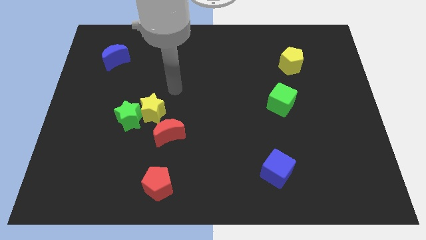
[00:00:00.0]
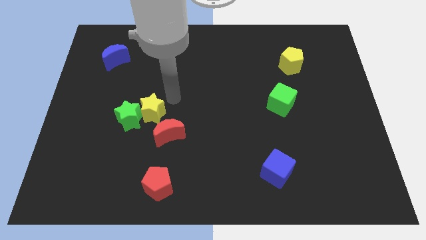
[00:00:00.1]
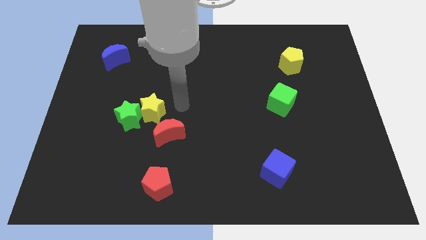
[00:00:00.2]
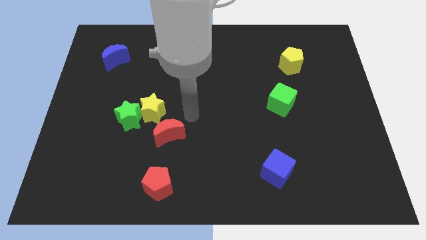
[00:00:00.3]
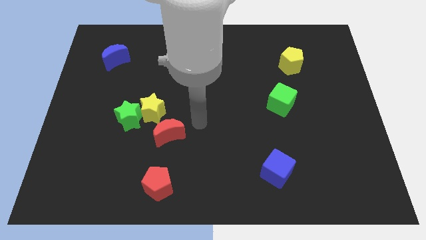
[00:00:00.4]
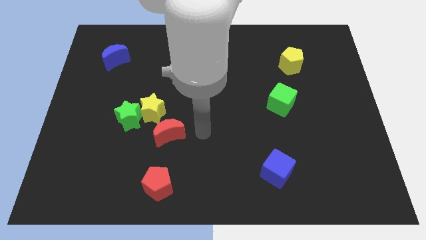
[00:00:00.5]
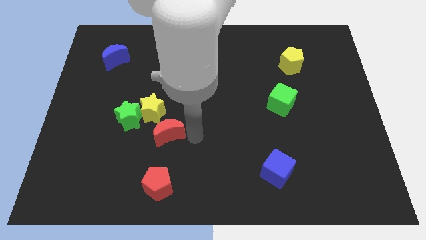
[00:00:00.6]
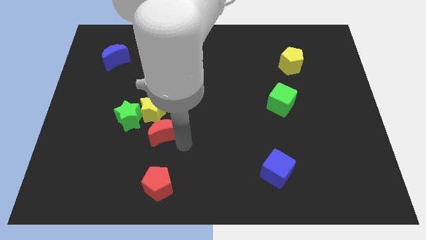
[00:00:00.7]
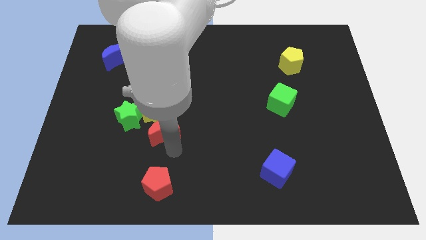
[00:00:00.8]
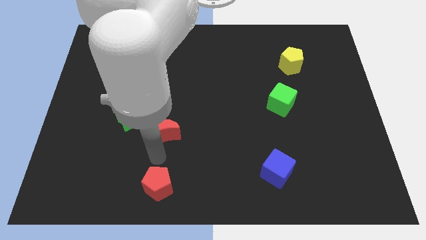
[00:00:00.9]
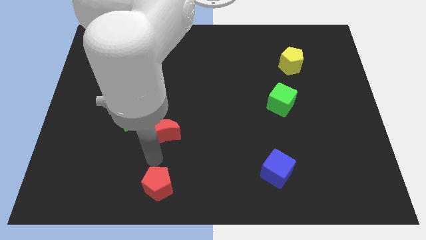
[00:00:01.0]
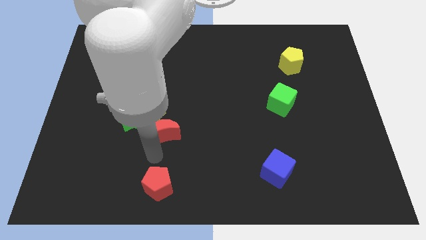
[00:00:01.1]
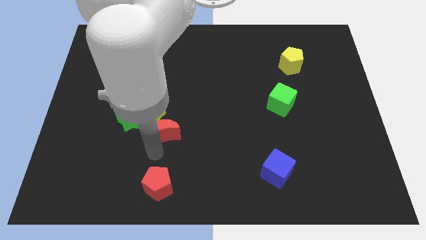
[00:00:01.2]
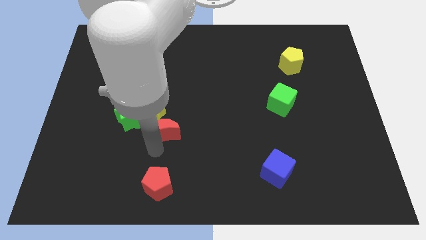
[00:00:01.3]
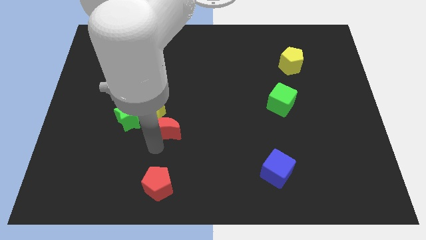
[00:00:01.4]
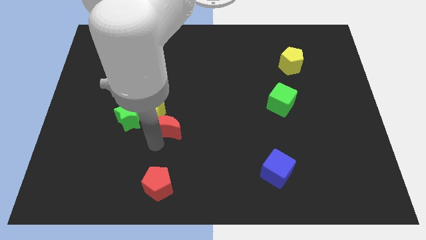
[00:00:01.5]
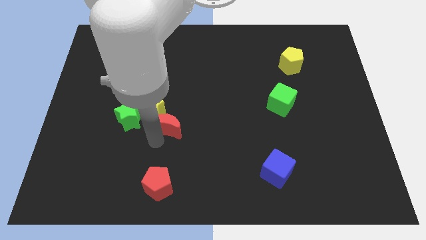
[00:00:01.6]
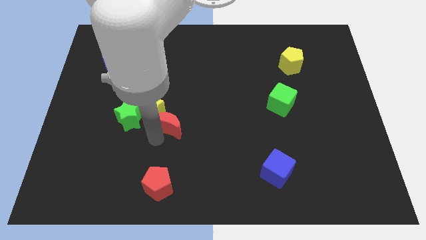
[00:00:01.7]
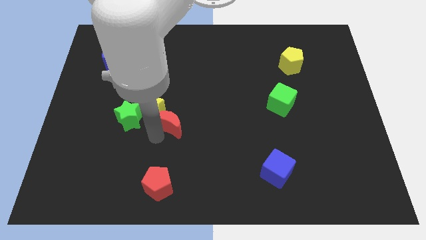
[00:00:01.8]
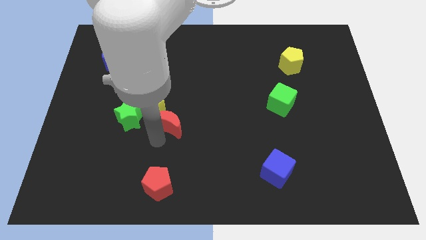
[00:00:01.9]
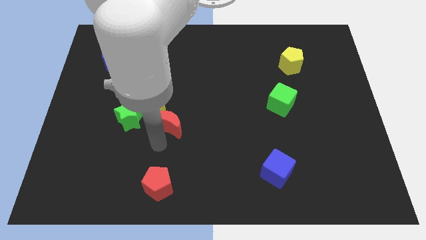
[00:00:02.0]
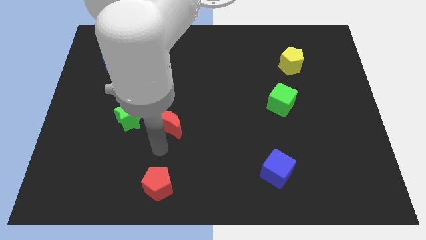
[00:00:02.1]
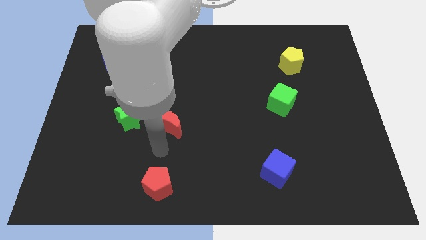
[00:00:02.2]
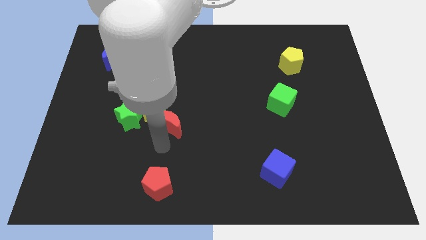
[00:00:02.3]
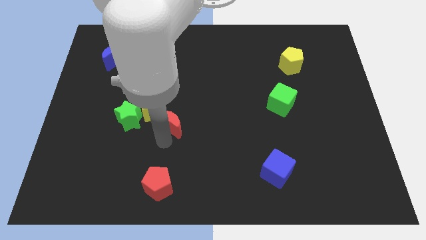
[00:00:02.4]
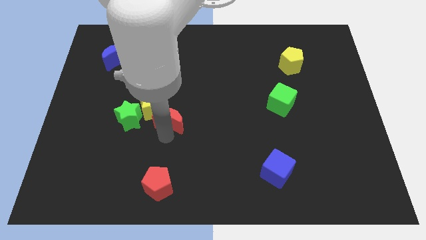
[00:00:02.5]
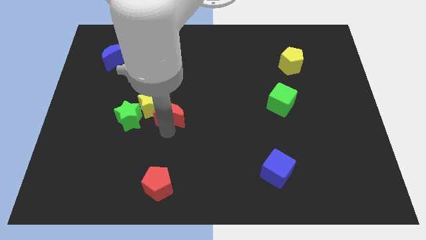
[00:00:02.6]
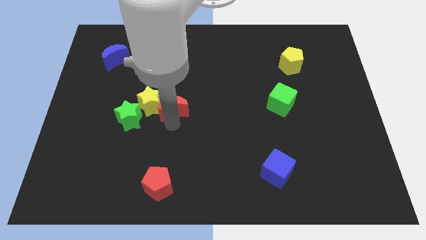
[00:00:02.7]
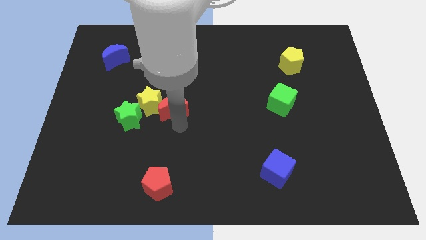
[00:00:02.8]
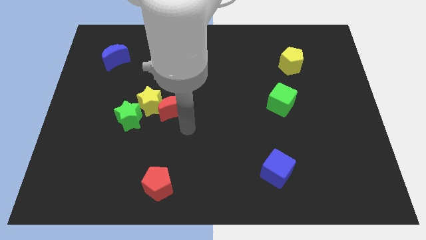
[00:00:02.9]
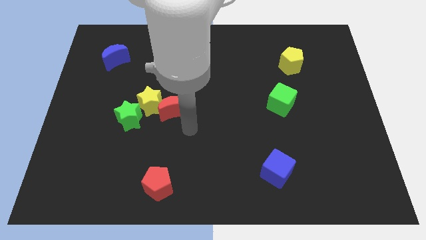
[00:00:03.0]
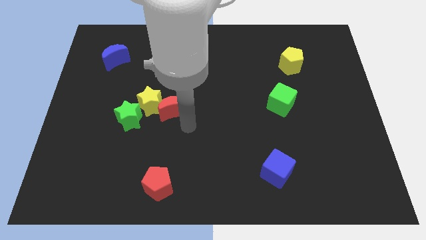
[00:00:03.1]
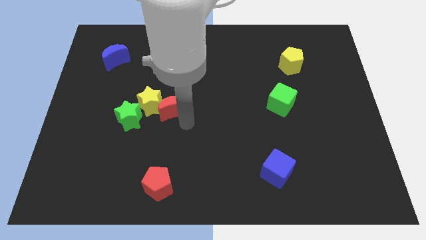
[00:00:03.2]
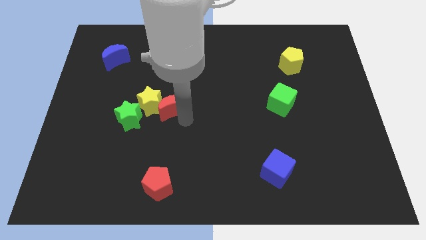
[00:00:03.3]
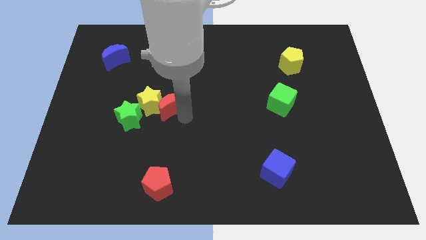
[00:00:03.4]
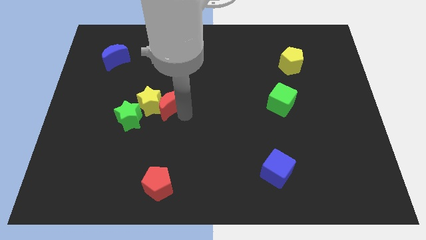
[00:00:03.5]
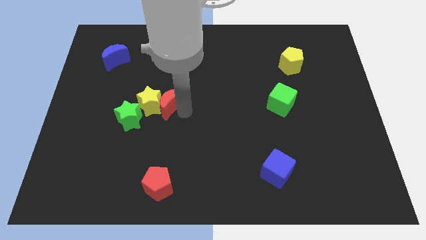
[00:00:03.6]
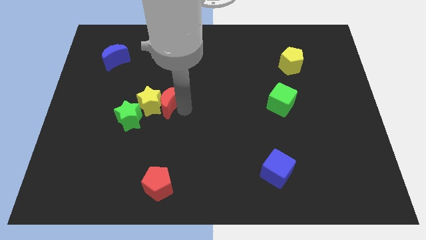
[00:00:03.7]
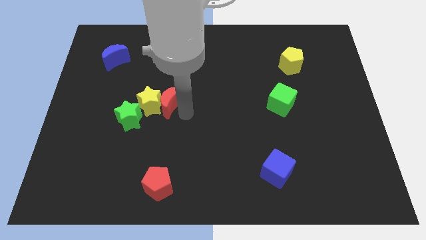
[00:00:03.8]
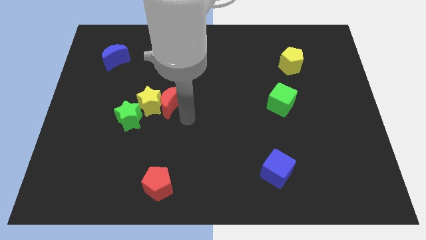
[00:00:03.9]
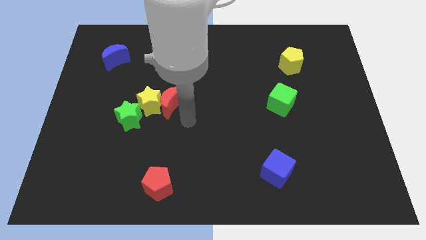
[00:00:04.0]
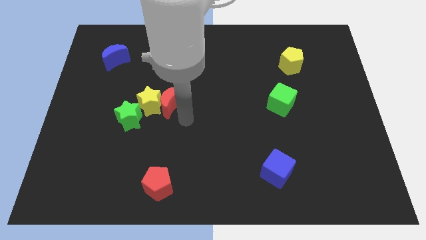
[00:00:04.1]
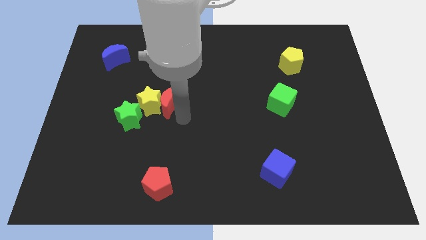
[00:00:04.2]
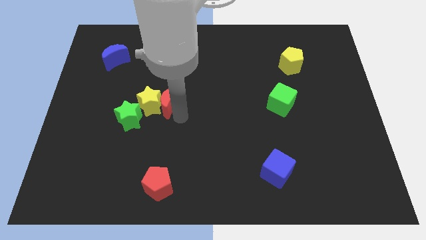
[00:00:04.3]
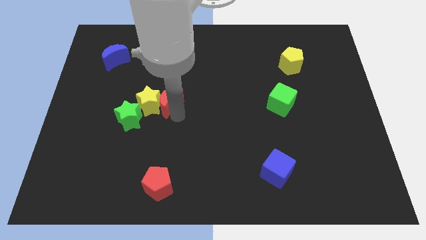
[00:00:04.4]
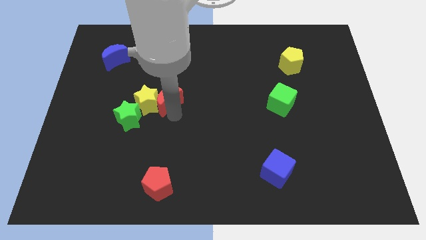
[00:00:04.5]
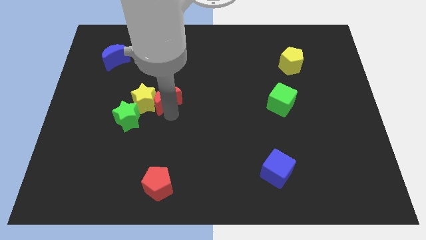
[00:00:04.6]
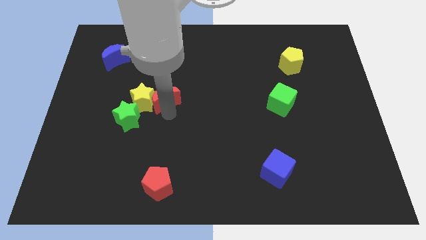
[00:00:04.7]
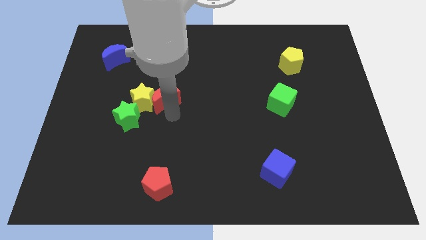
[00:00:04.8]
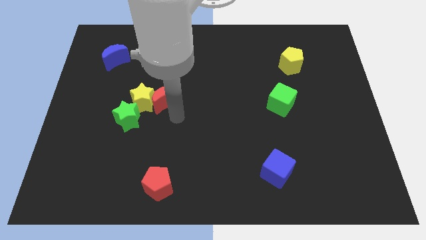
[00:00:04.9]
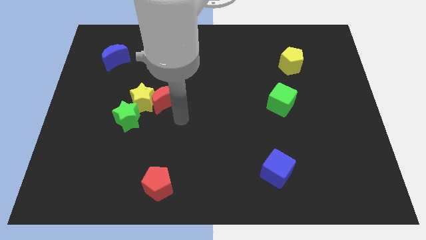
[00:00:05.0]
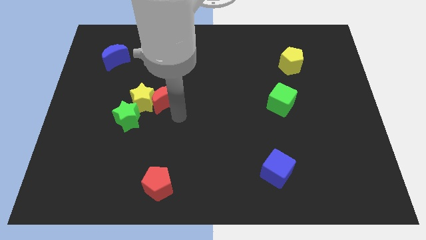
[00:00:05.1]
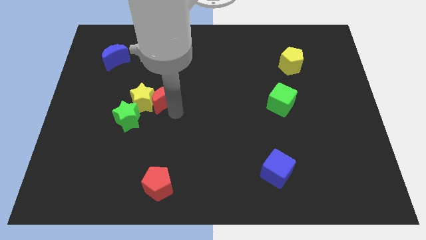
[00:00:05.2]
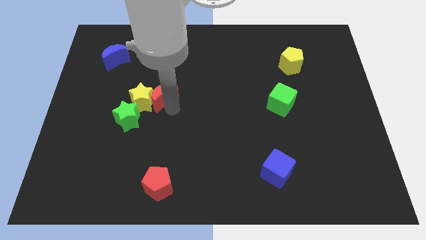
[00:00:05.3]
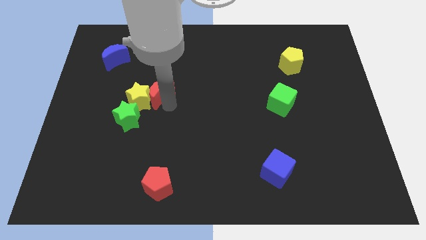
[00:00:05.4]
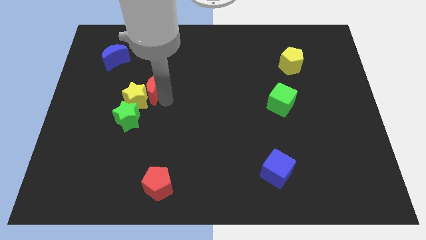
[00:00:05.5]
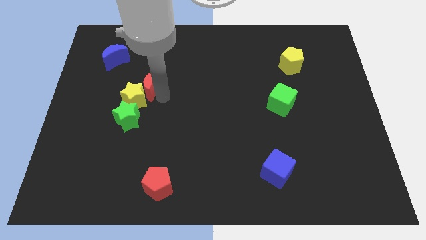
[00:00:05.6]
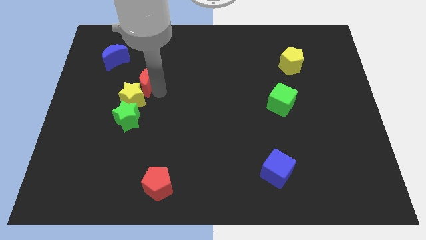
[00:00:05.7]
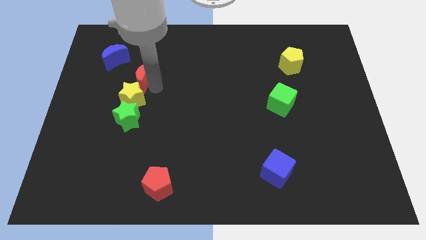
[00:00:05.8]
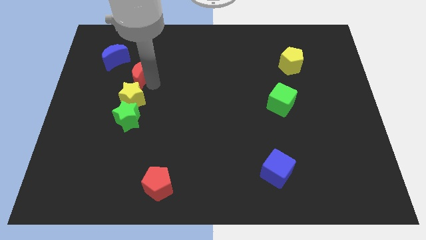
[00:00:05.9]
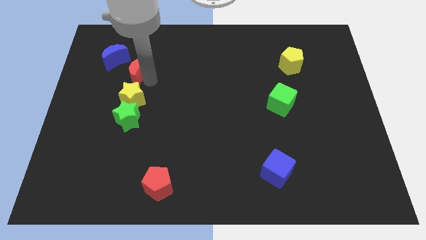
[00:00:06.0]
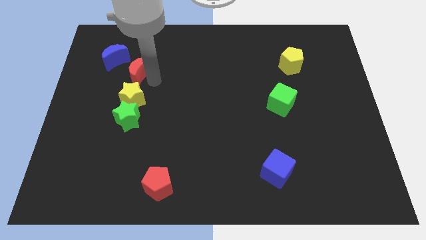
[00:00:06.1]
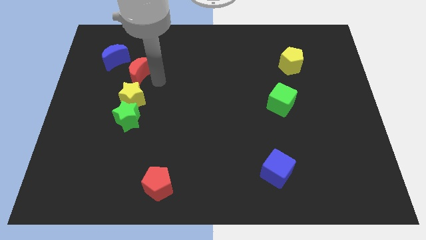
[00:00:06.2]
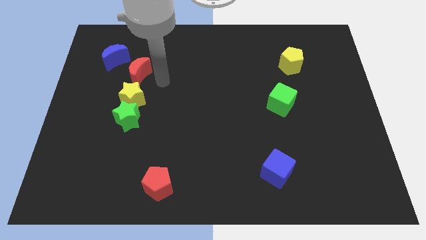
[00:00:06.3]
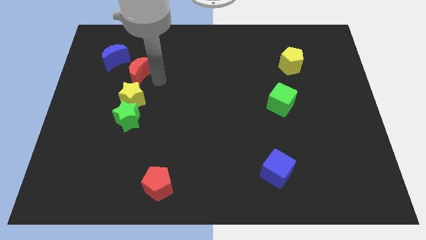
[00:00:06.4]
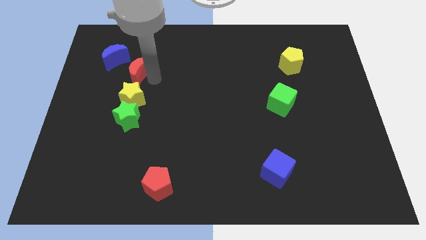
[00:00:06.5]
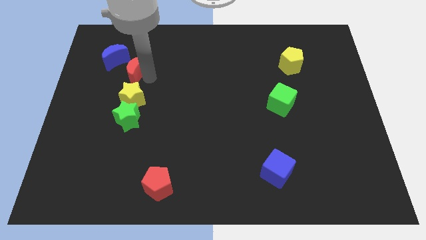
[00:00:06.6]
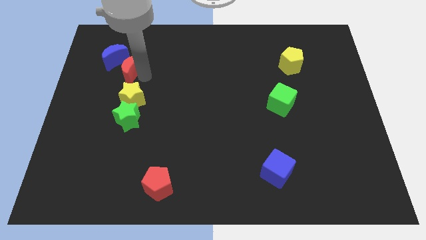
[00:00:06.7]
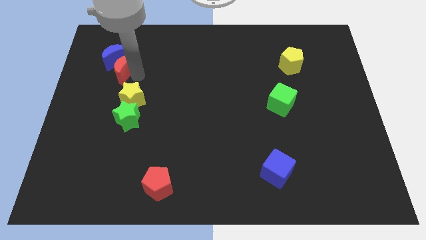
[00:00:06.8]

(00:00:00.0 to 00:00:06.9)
move the red moon to the blue moon

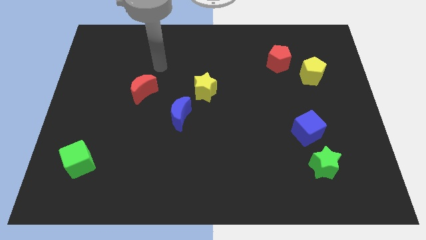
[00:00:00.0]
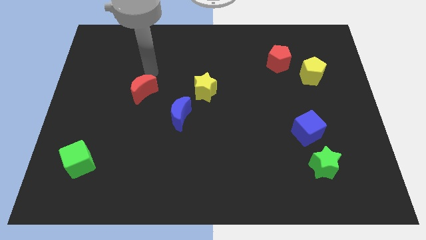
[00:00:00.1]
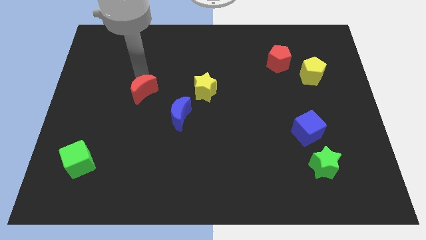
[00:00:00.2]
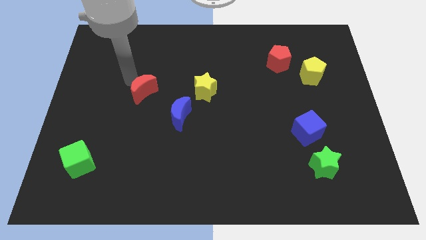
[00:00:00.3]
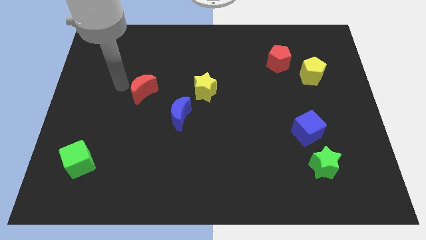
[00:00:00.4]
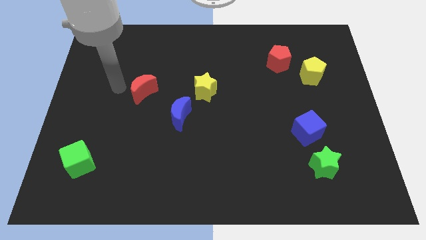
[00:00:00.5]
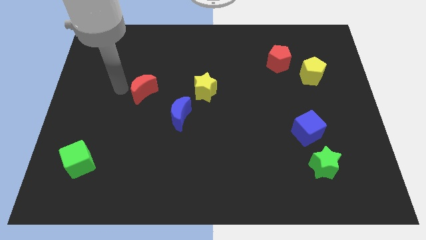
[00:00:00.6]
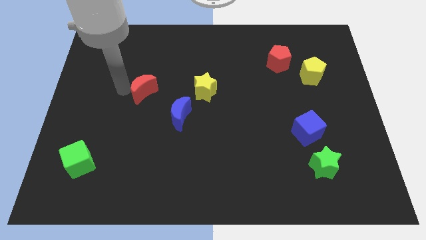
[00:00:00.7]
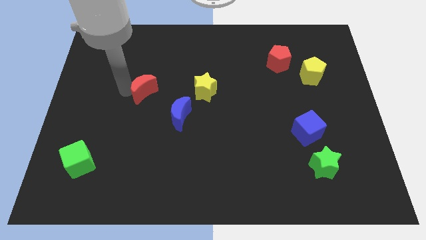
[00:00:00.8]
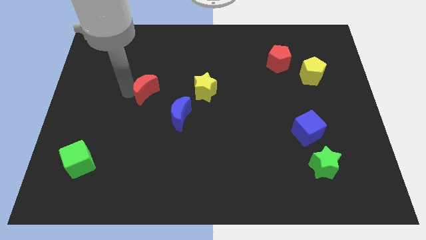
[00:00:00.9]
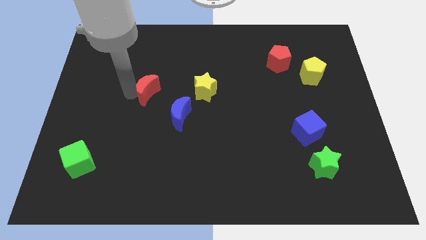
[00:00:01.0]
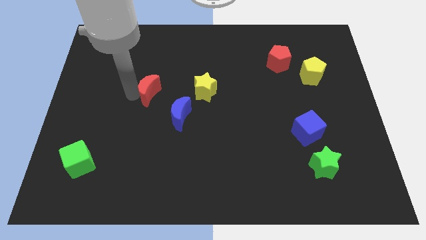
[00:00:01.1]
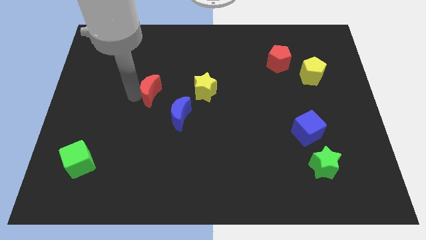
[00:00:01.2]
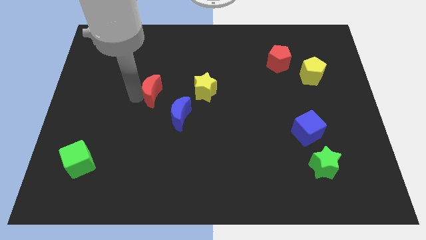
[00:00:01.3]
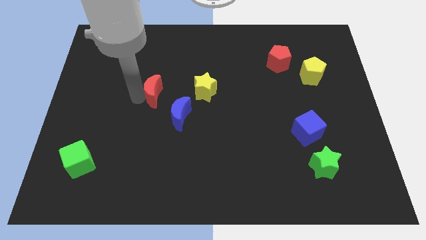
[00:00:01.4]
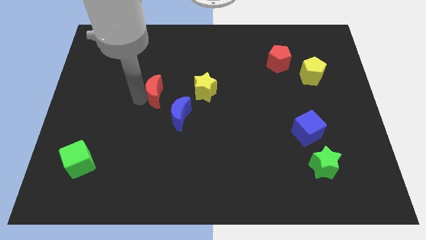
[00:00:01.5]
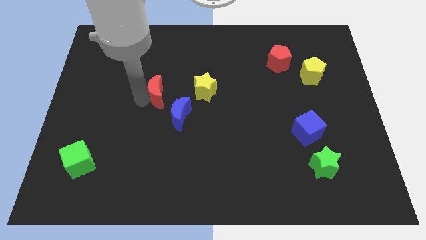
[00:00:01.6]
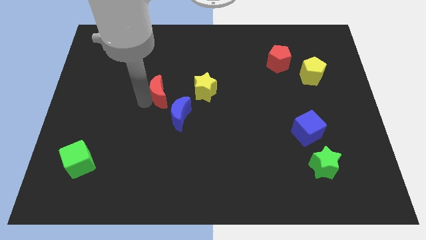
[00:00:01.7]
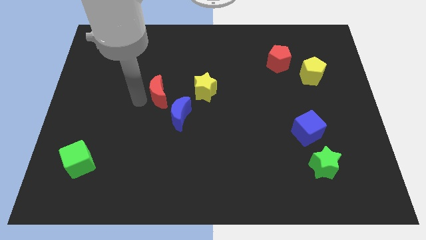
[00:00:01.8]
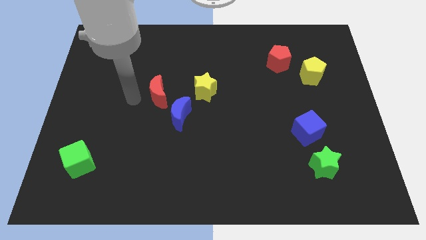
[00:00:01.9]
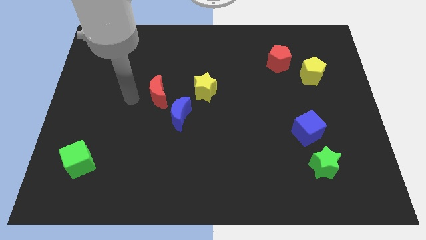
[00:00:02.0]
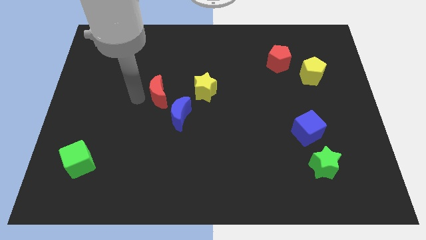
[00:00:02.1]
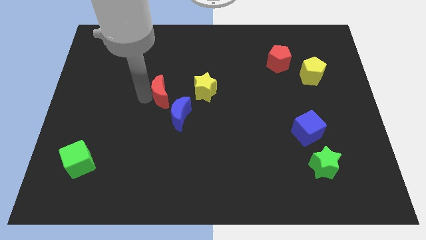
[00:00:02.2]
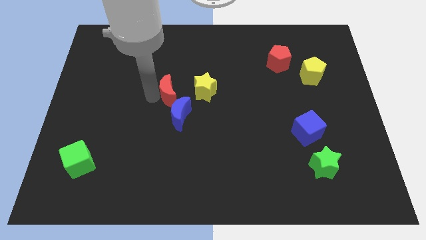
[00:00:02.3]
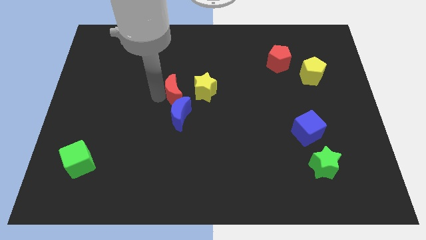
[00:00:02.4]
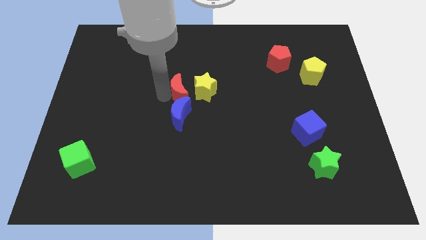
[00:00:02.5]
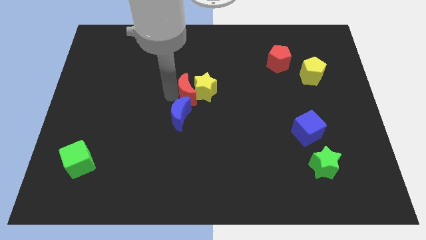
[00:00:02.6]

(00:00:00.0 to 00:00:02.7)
slide the red moon to the yellow star
